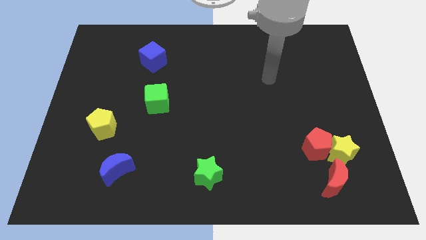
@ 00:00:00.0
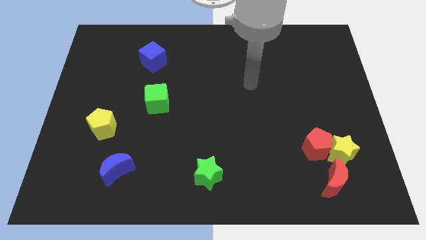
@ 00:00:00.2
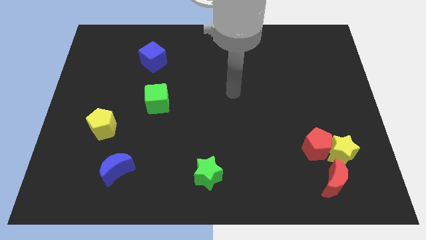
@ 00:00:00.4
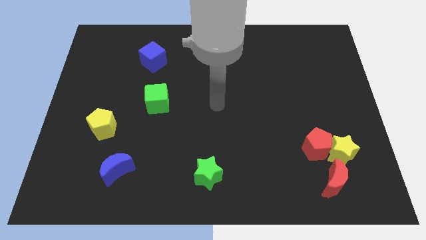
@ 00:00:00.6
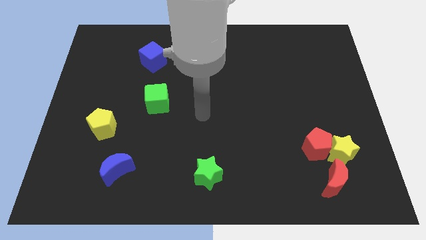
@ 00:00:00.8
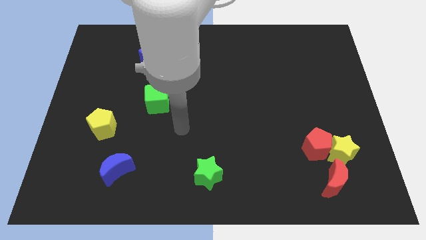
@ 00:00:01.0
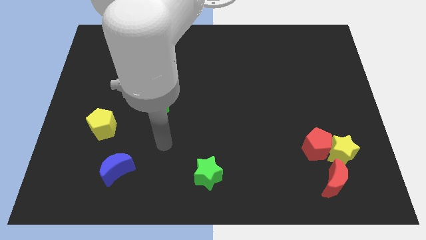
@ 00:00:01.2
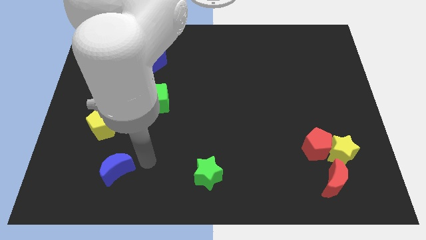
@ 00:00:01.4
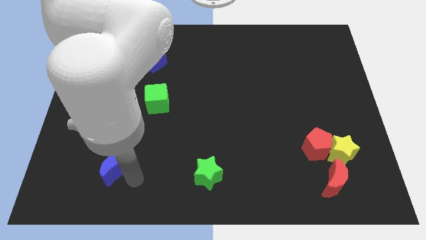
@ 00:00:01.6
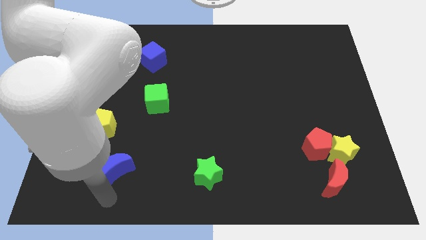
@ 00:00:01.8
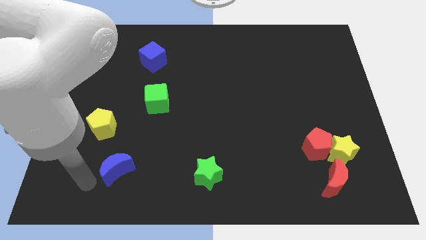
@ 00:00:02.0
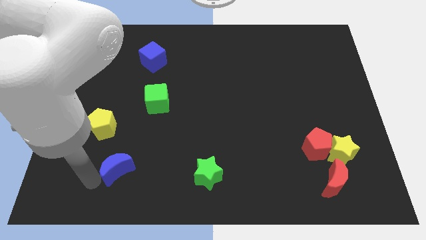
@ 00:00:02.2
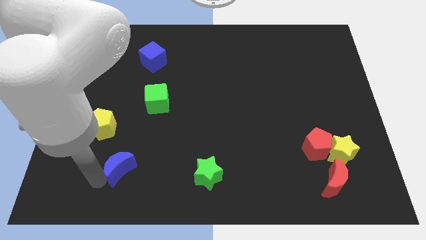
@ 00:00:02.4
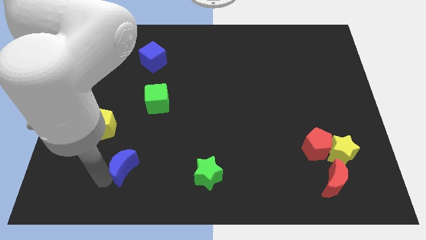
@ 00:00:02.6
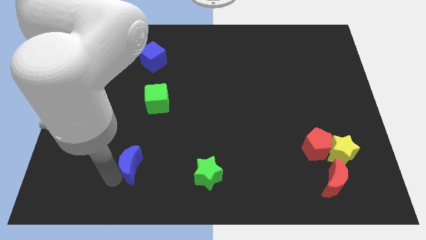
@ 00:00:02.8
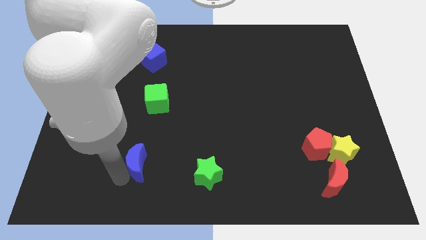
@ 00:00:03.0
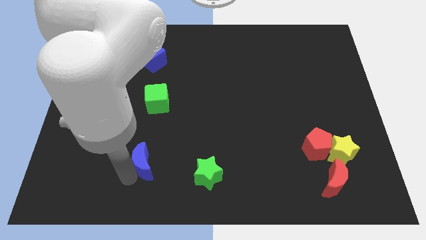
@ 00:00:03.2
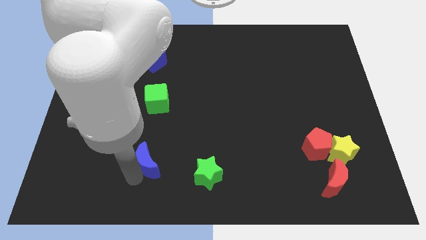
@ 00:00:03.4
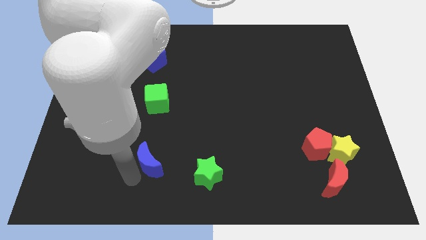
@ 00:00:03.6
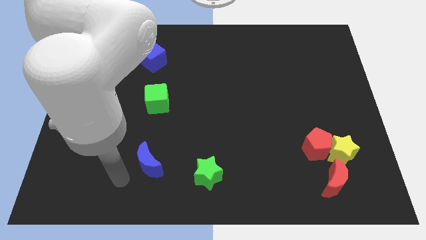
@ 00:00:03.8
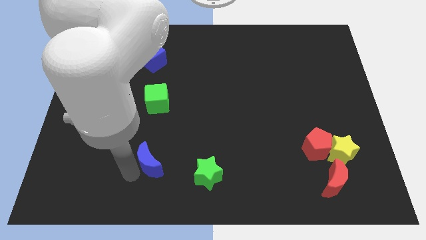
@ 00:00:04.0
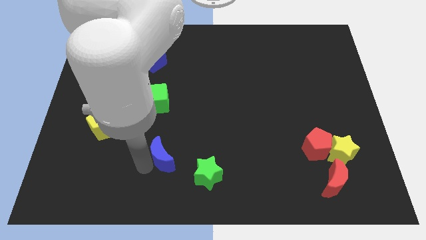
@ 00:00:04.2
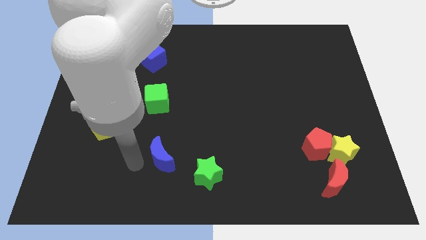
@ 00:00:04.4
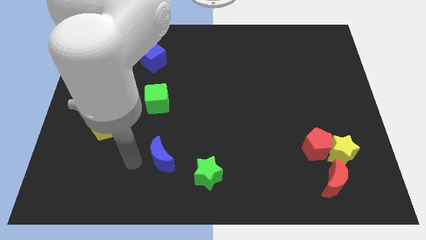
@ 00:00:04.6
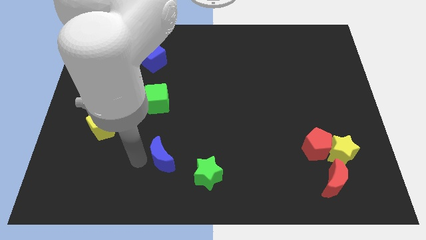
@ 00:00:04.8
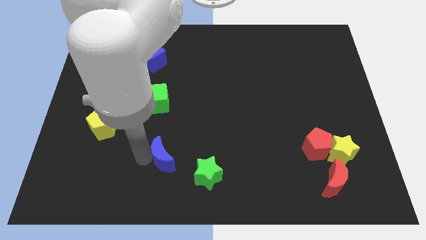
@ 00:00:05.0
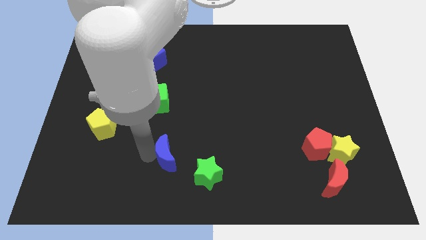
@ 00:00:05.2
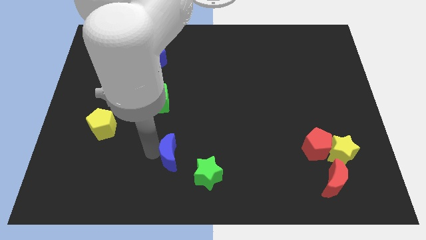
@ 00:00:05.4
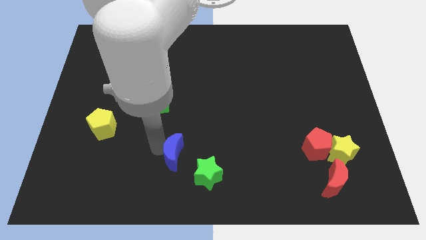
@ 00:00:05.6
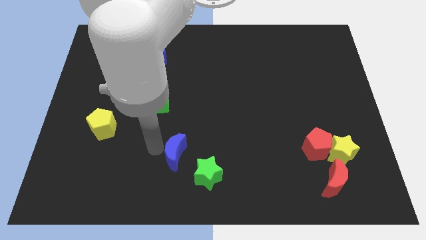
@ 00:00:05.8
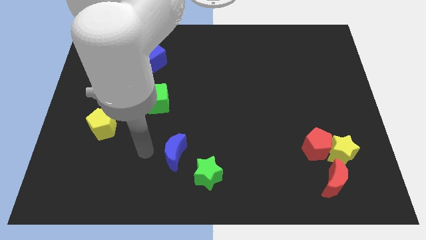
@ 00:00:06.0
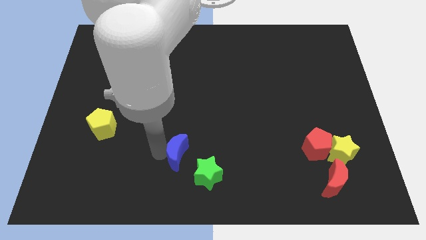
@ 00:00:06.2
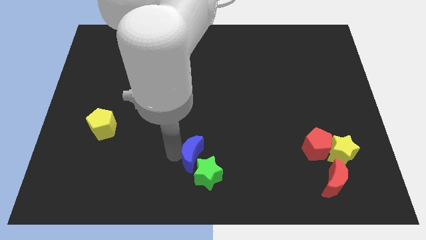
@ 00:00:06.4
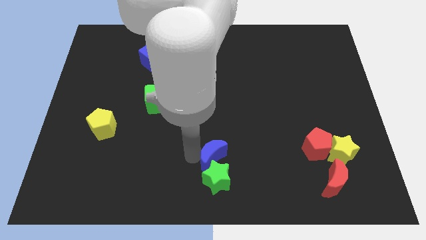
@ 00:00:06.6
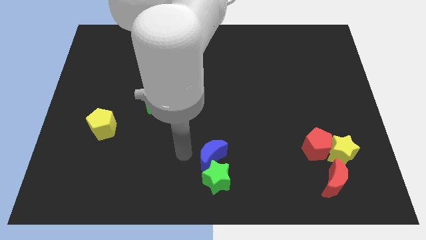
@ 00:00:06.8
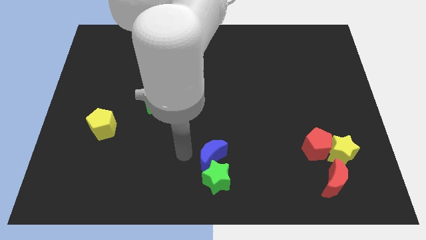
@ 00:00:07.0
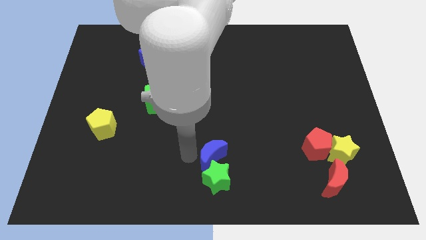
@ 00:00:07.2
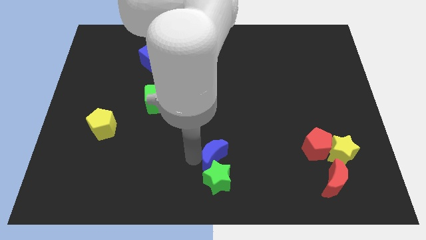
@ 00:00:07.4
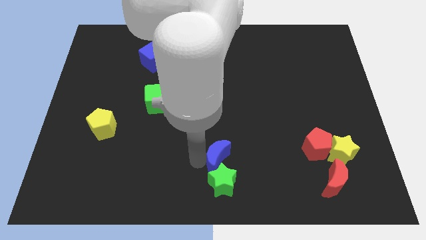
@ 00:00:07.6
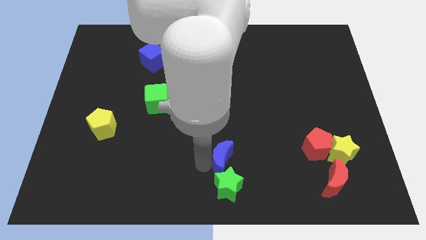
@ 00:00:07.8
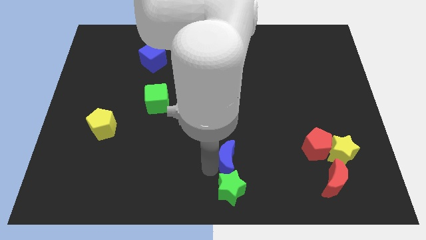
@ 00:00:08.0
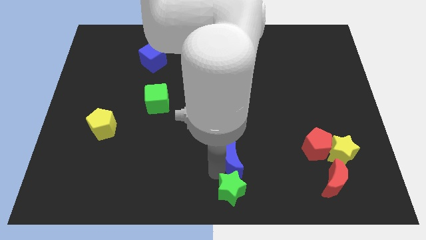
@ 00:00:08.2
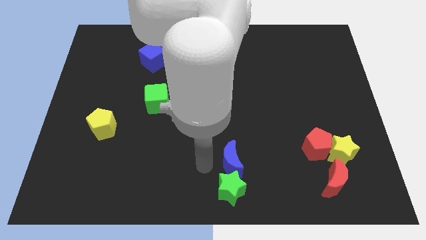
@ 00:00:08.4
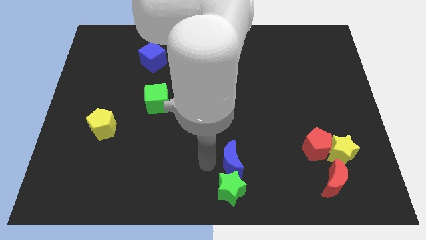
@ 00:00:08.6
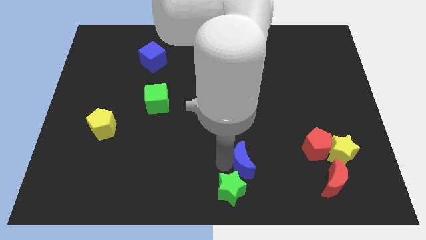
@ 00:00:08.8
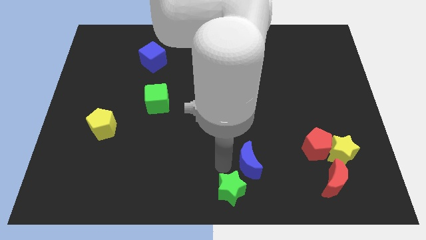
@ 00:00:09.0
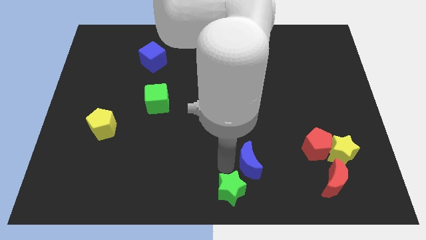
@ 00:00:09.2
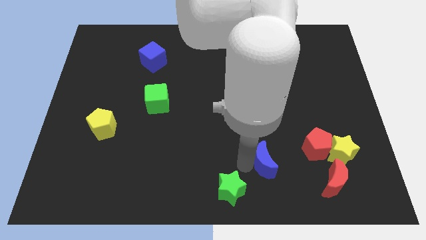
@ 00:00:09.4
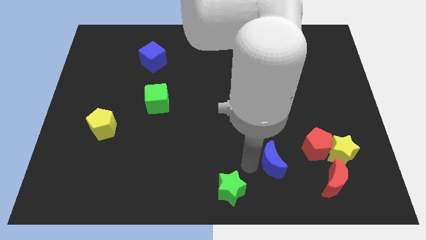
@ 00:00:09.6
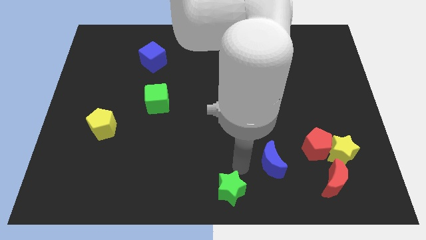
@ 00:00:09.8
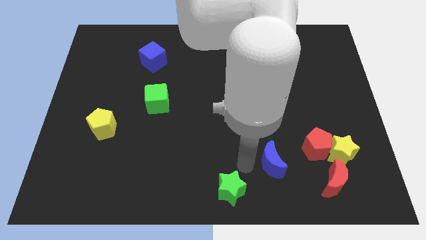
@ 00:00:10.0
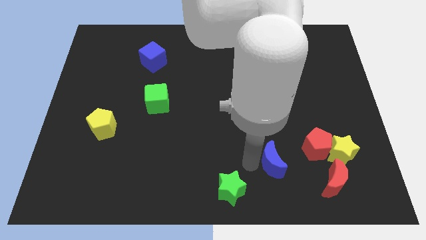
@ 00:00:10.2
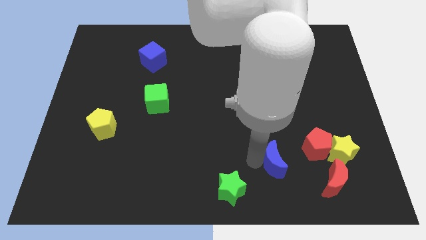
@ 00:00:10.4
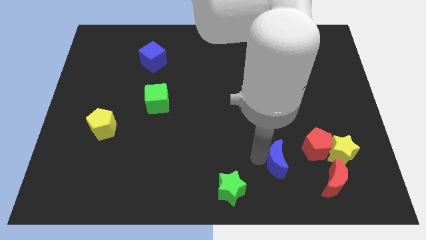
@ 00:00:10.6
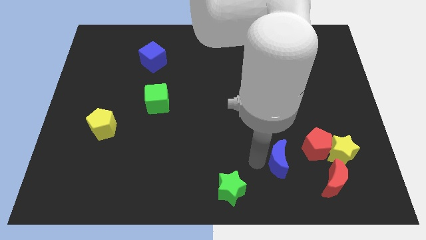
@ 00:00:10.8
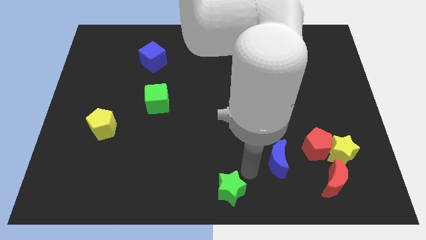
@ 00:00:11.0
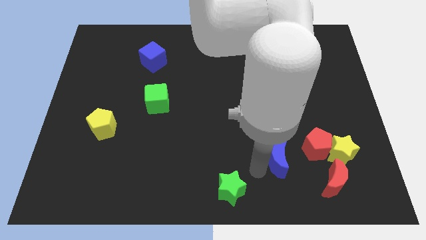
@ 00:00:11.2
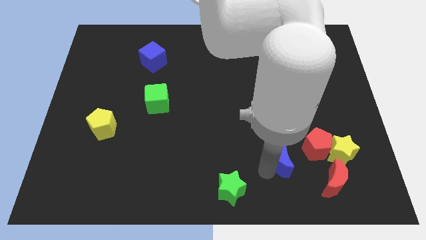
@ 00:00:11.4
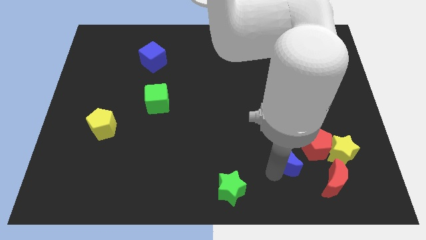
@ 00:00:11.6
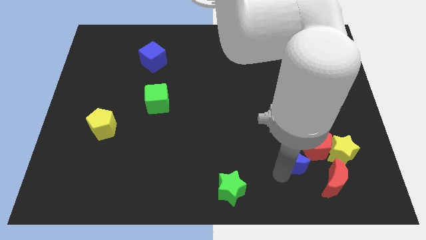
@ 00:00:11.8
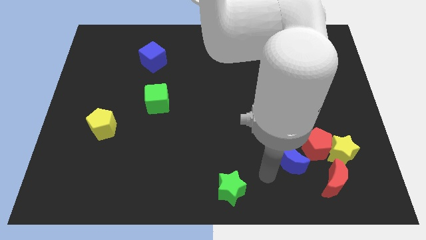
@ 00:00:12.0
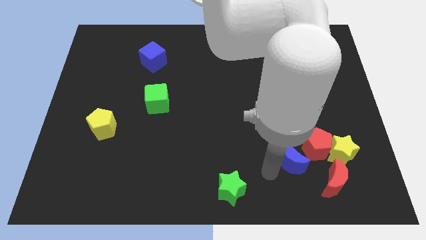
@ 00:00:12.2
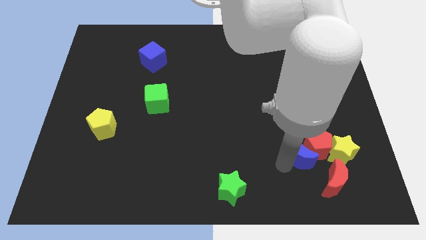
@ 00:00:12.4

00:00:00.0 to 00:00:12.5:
push the blue moon to the red pentagon
